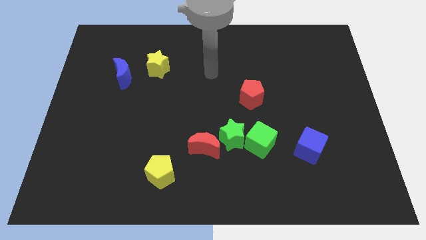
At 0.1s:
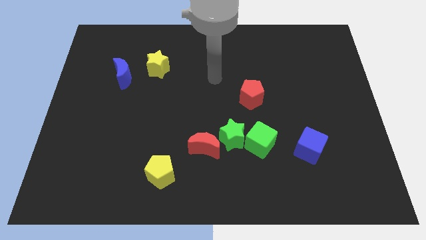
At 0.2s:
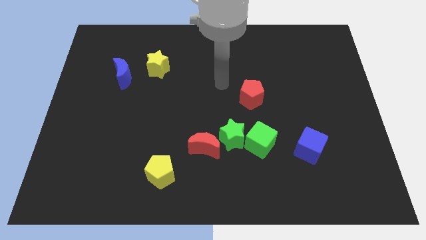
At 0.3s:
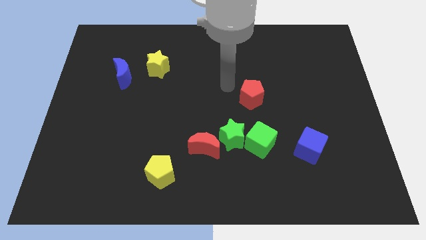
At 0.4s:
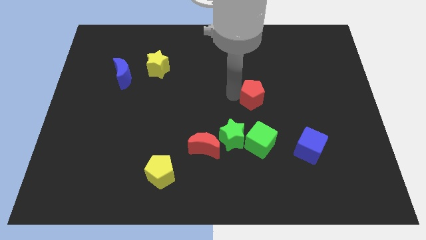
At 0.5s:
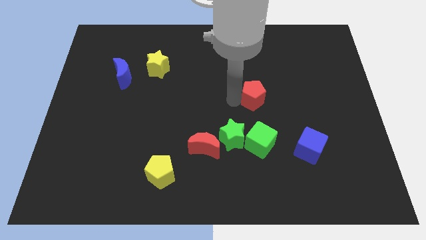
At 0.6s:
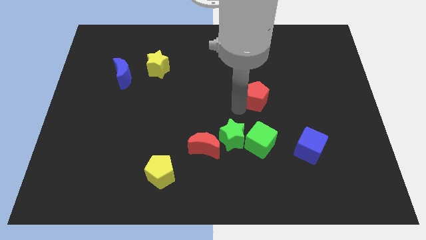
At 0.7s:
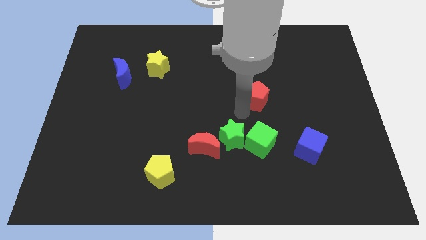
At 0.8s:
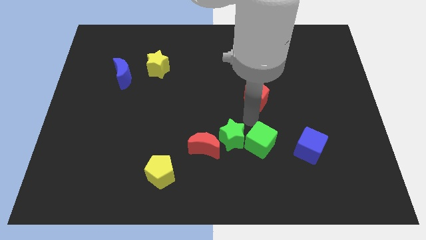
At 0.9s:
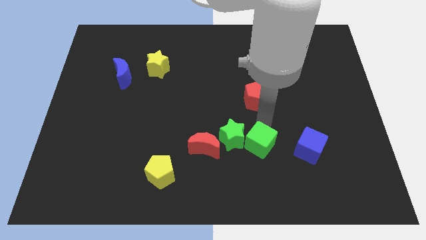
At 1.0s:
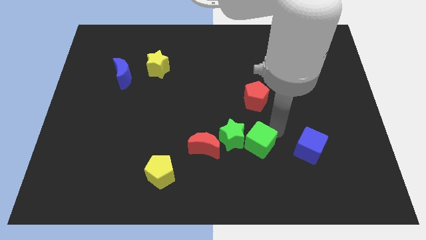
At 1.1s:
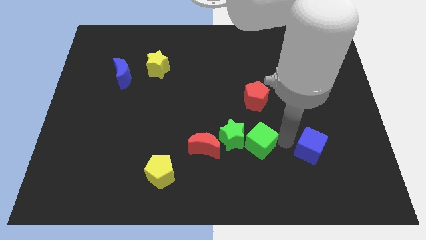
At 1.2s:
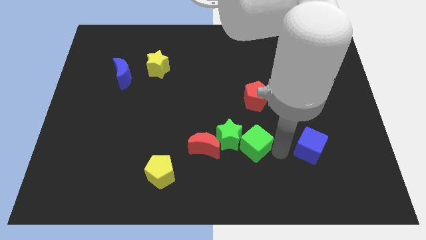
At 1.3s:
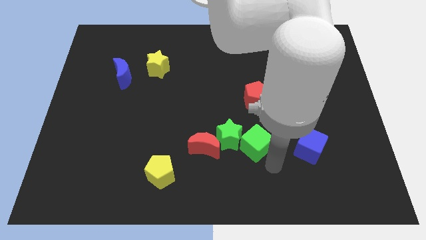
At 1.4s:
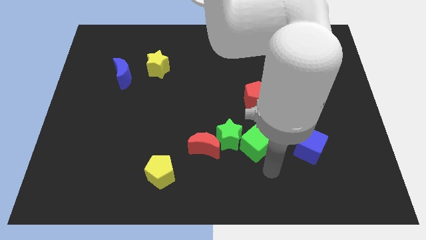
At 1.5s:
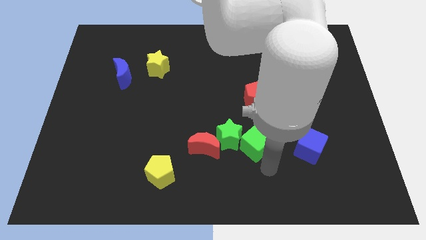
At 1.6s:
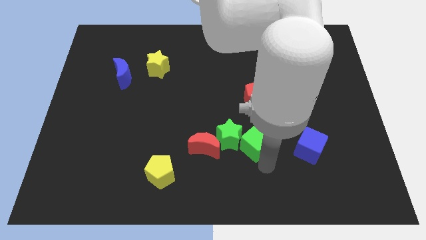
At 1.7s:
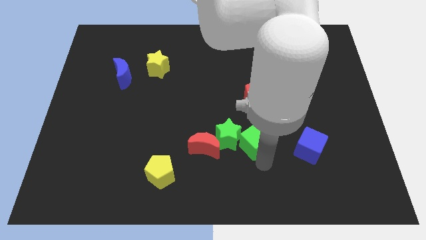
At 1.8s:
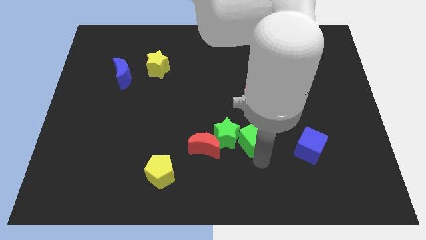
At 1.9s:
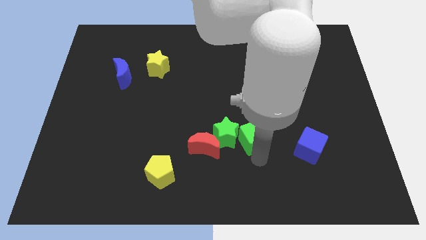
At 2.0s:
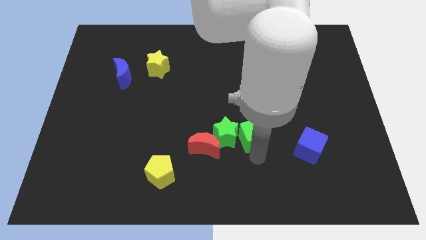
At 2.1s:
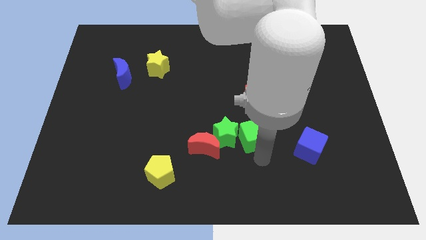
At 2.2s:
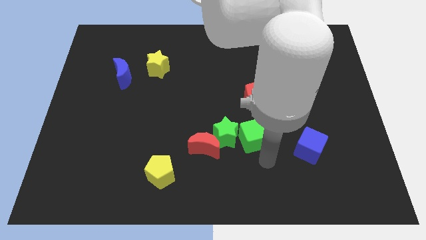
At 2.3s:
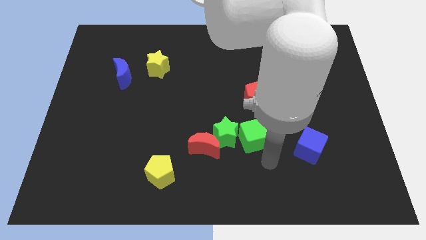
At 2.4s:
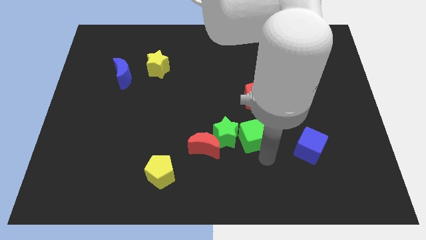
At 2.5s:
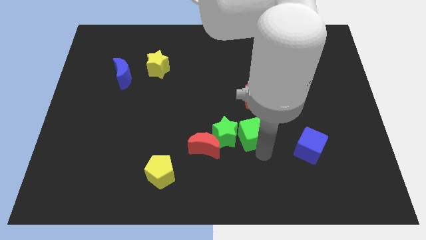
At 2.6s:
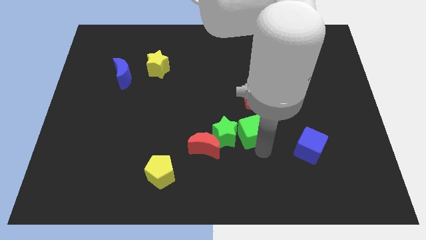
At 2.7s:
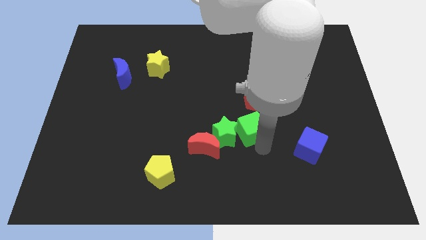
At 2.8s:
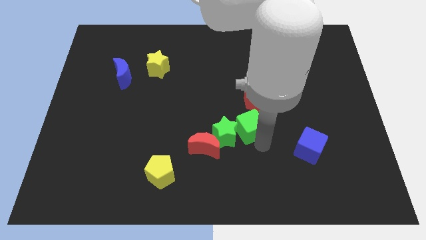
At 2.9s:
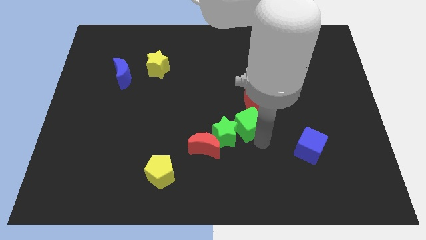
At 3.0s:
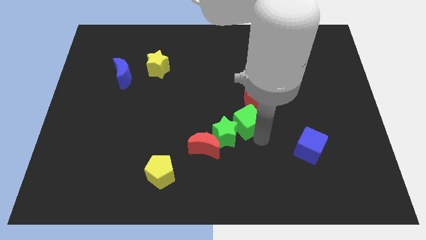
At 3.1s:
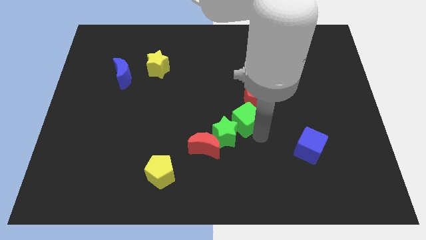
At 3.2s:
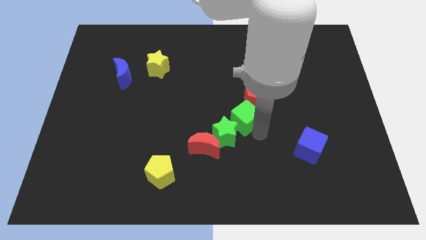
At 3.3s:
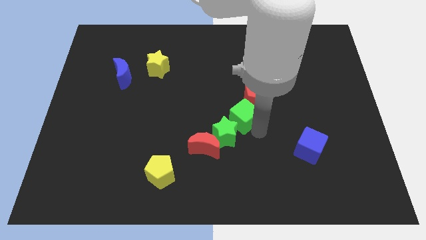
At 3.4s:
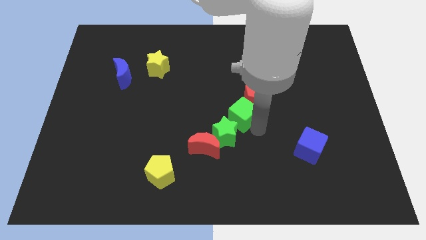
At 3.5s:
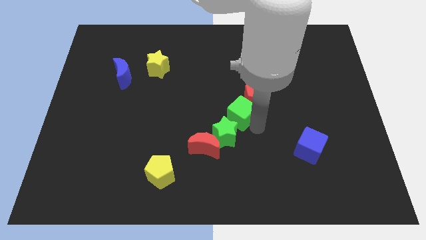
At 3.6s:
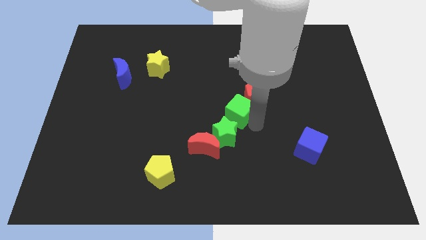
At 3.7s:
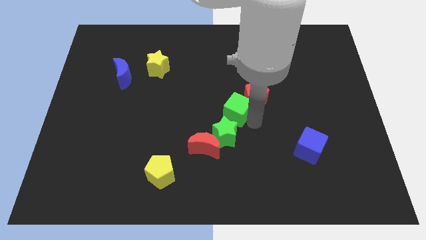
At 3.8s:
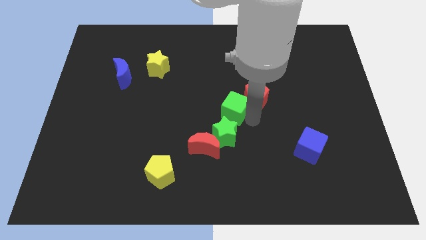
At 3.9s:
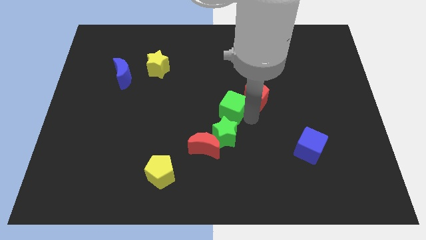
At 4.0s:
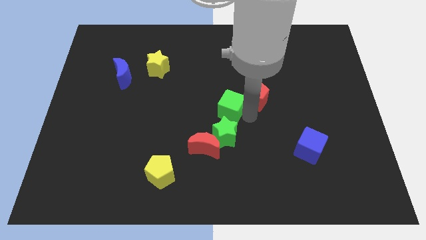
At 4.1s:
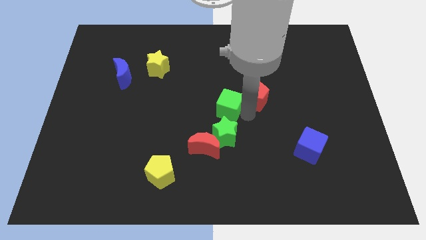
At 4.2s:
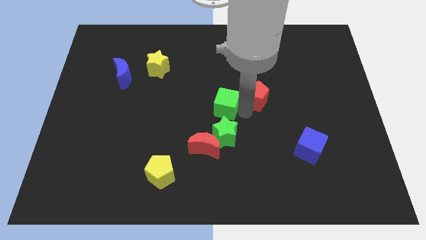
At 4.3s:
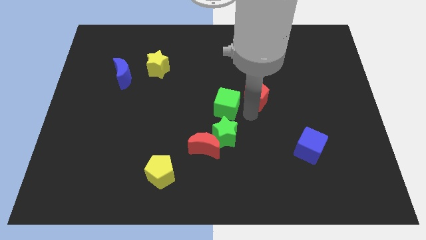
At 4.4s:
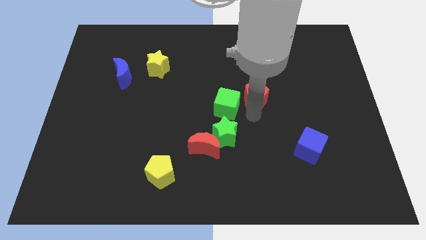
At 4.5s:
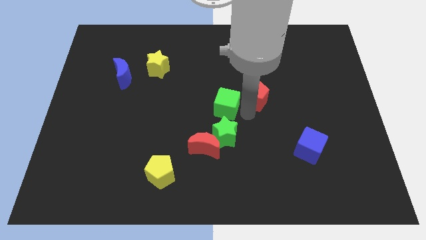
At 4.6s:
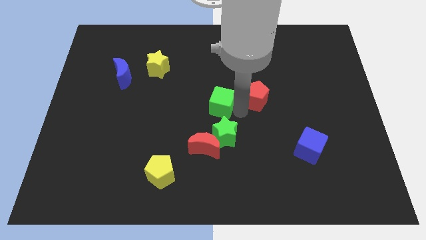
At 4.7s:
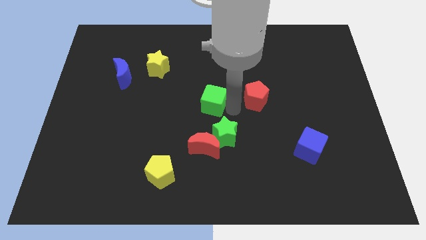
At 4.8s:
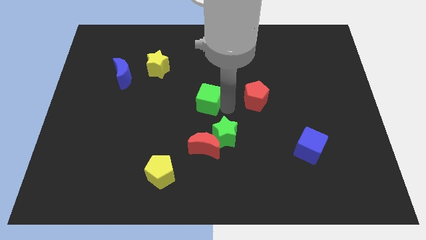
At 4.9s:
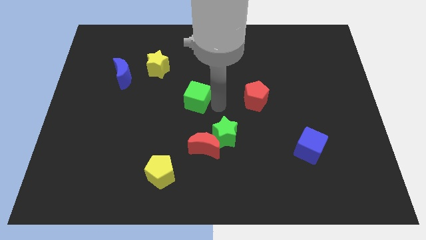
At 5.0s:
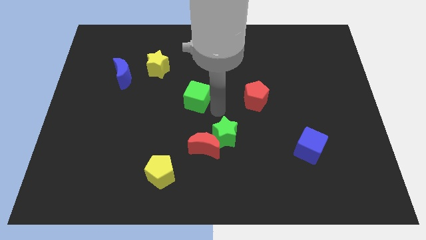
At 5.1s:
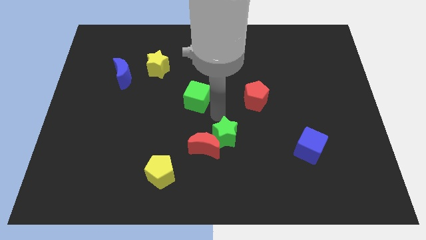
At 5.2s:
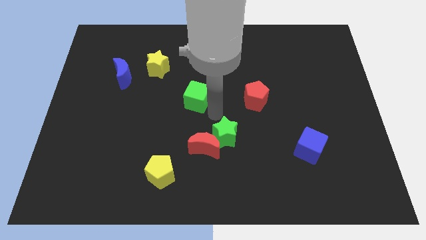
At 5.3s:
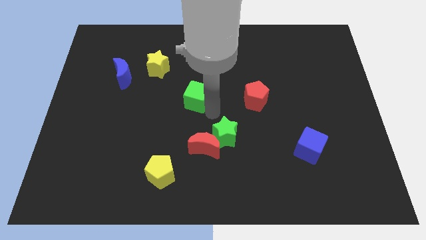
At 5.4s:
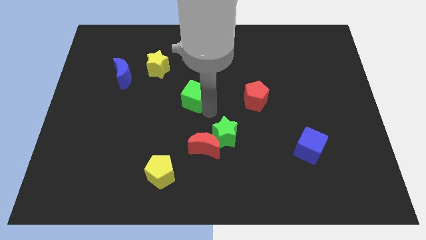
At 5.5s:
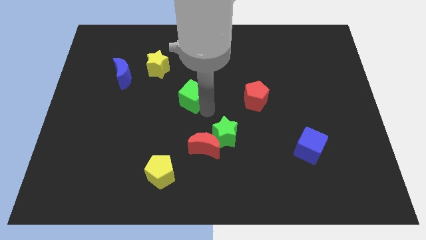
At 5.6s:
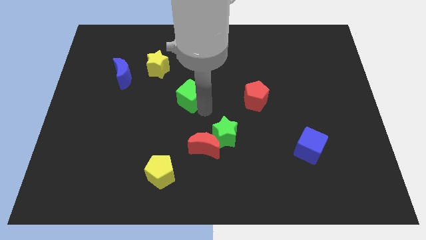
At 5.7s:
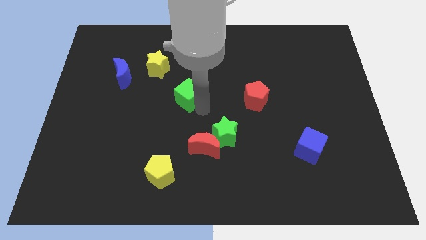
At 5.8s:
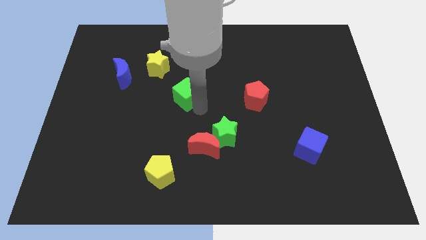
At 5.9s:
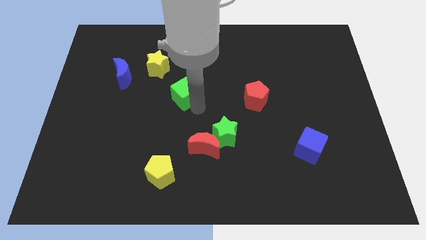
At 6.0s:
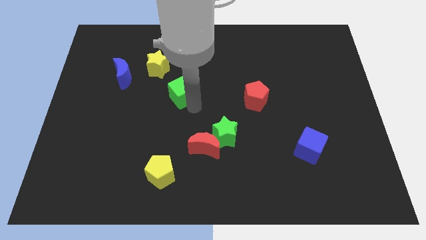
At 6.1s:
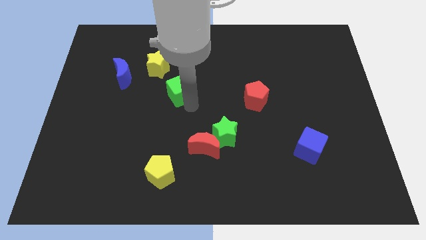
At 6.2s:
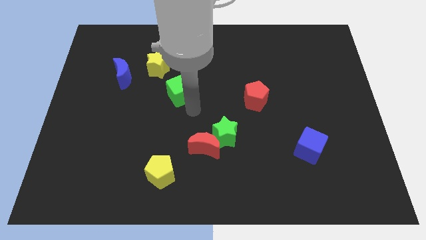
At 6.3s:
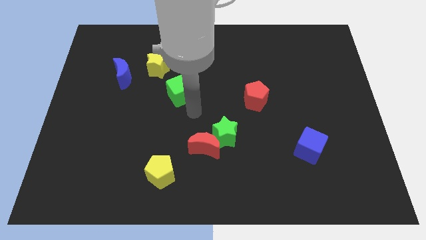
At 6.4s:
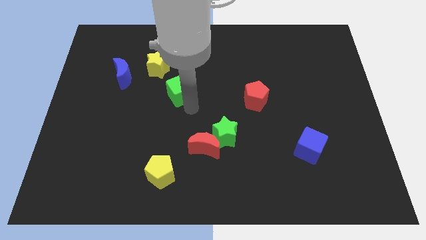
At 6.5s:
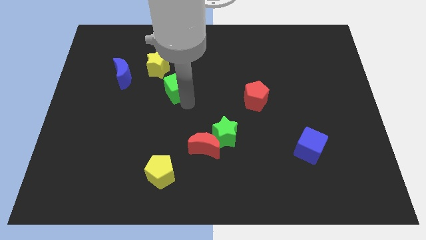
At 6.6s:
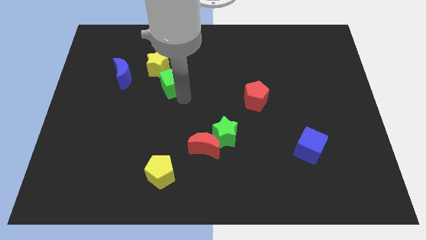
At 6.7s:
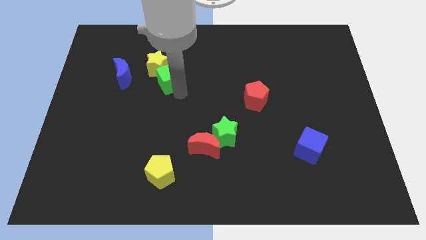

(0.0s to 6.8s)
slide the green cube next to the yellow star

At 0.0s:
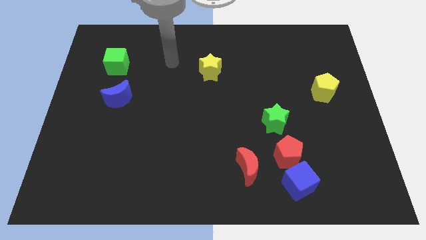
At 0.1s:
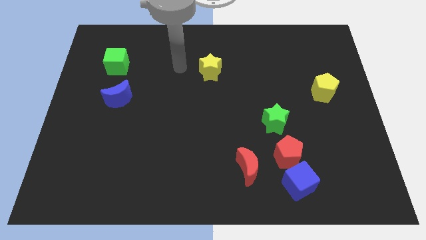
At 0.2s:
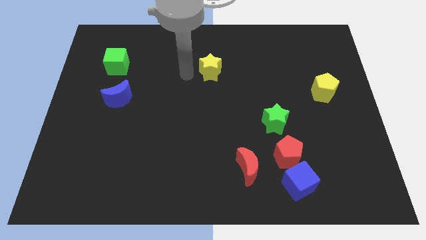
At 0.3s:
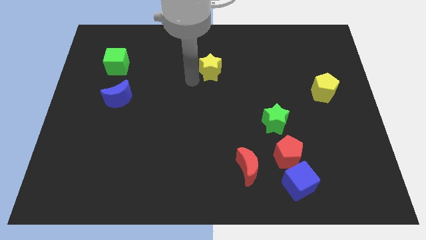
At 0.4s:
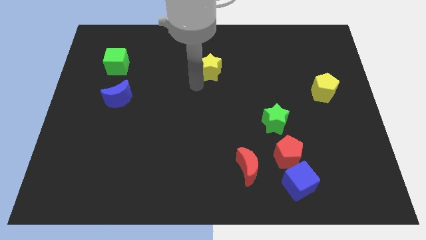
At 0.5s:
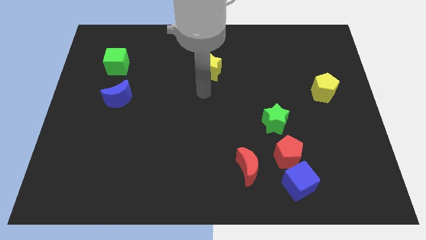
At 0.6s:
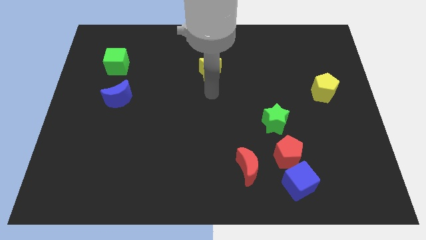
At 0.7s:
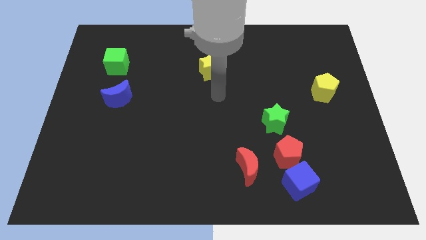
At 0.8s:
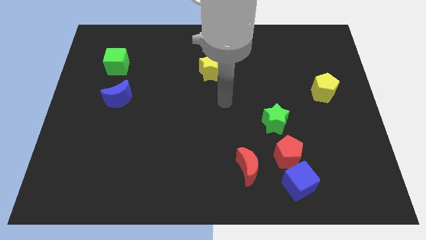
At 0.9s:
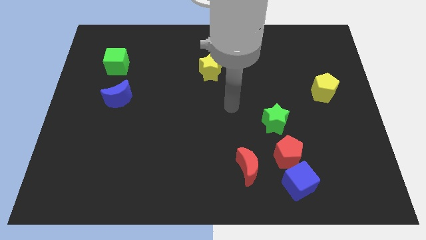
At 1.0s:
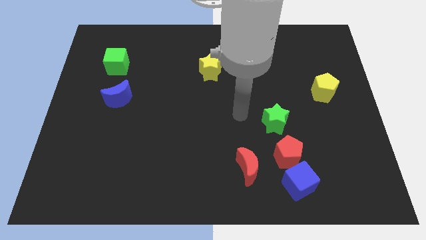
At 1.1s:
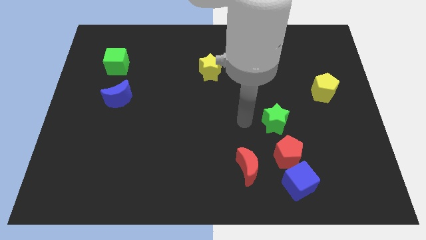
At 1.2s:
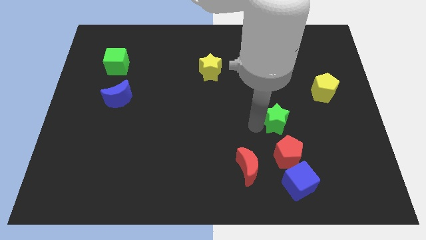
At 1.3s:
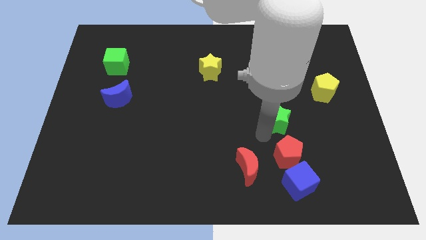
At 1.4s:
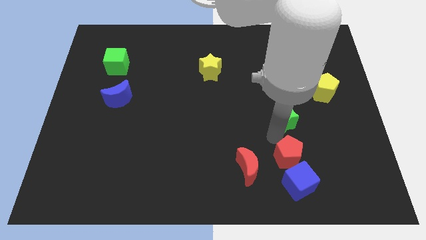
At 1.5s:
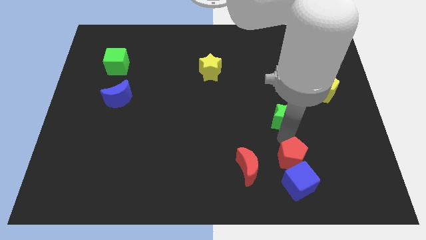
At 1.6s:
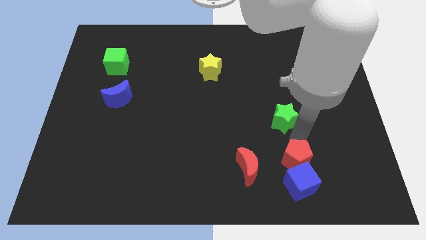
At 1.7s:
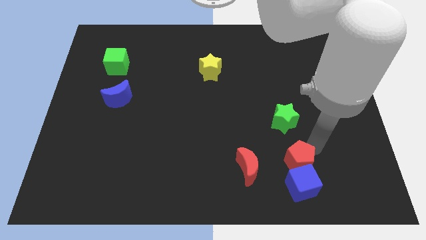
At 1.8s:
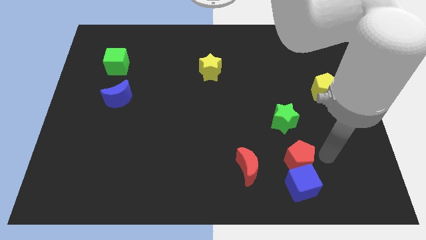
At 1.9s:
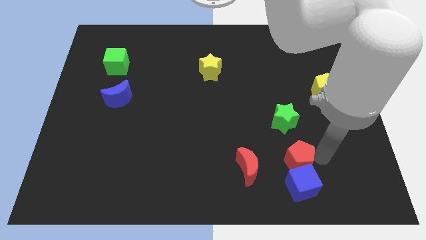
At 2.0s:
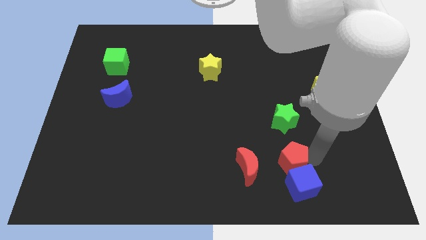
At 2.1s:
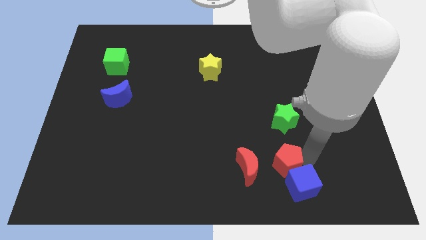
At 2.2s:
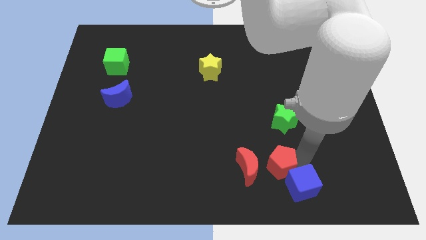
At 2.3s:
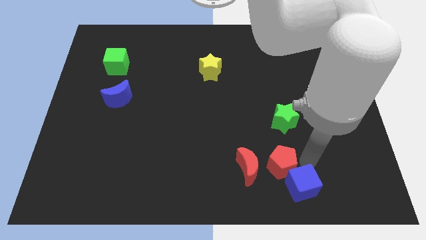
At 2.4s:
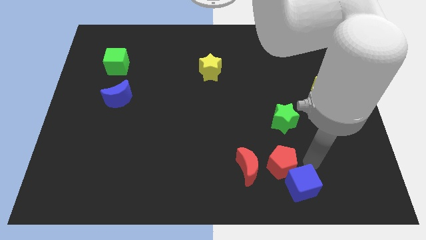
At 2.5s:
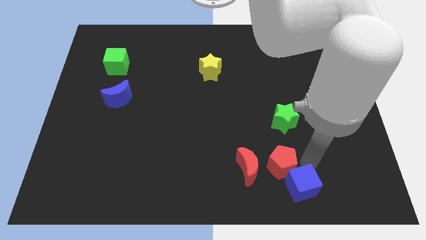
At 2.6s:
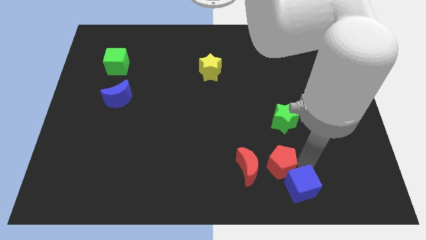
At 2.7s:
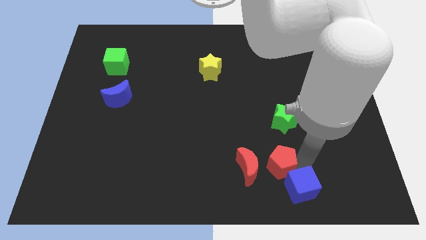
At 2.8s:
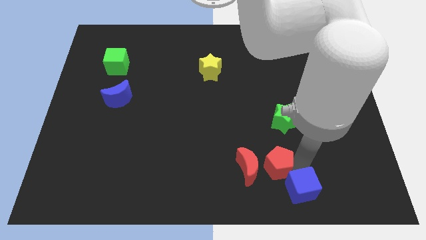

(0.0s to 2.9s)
put the red pentagon close to the red moon
